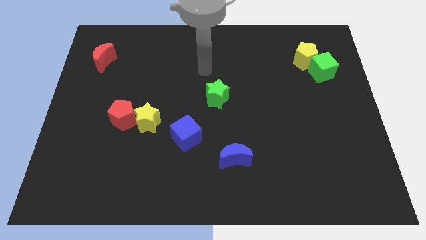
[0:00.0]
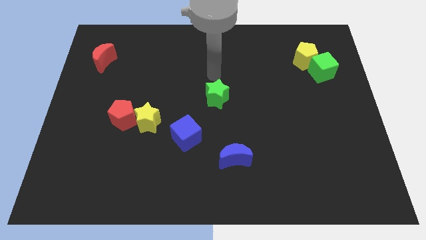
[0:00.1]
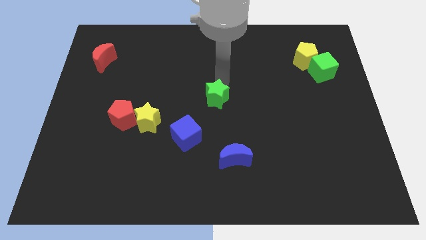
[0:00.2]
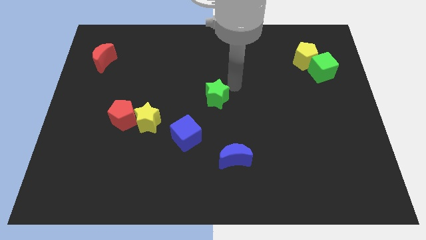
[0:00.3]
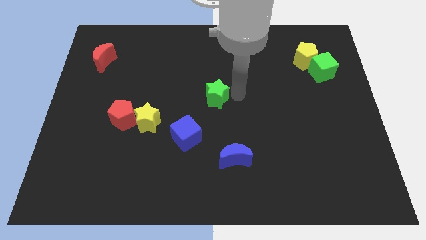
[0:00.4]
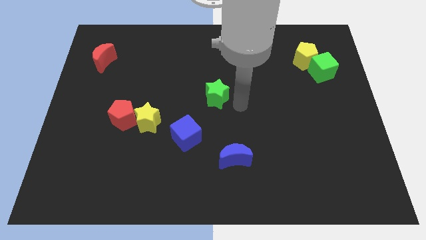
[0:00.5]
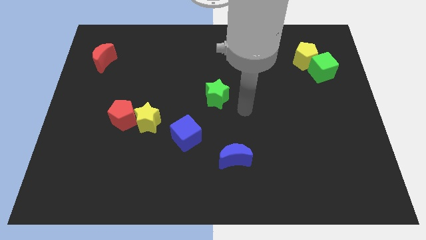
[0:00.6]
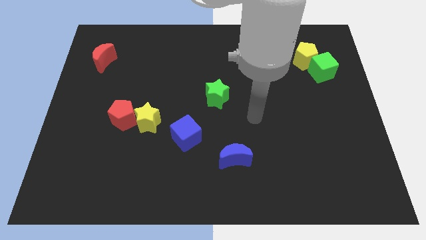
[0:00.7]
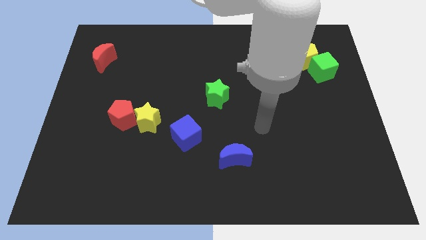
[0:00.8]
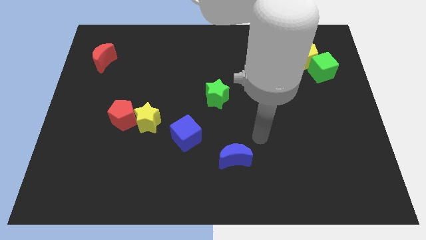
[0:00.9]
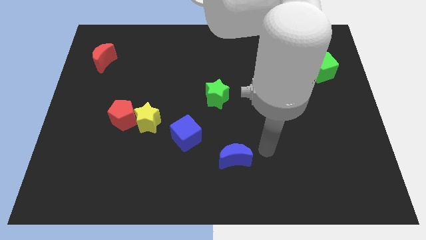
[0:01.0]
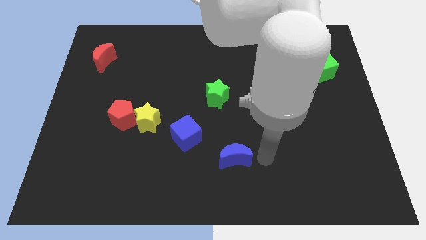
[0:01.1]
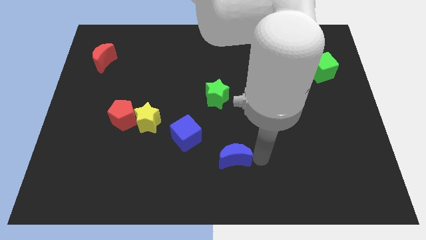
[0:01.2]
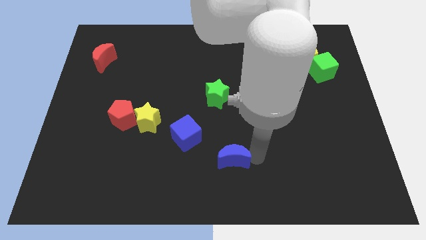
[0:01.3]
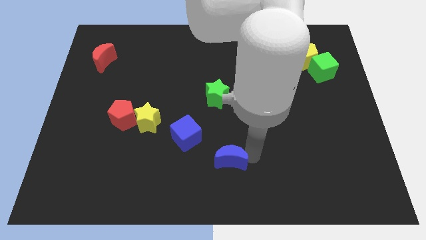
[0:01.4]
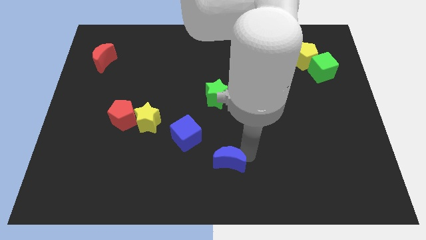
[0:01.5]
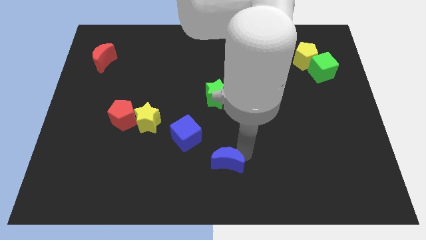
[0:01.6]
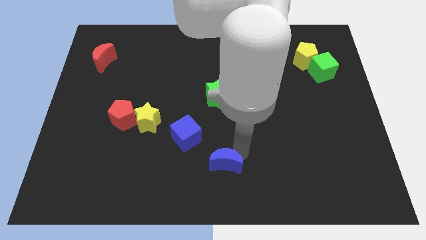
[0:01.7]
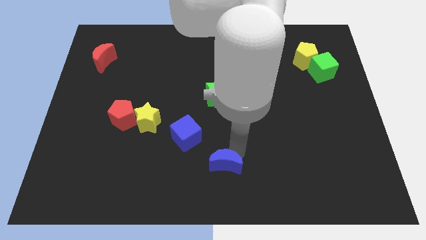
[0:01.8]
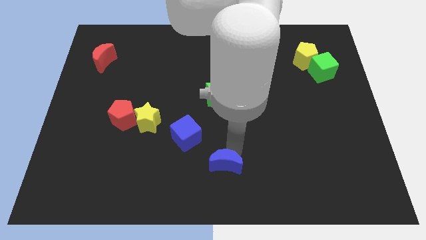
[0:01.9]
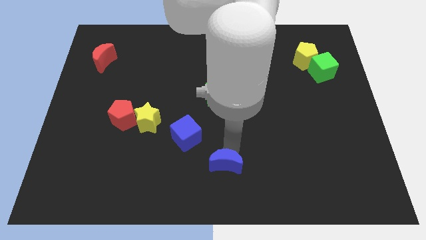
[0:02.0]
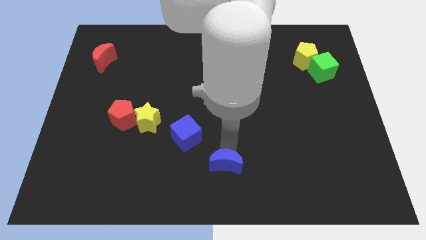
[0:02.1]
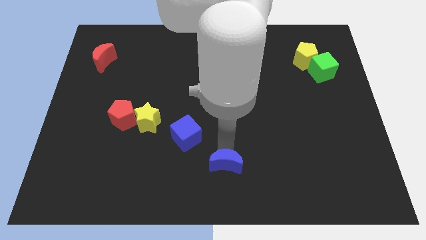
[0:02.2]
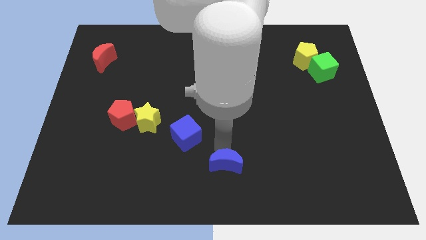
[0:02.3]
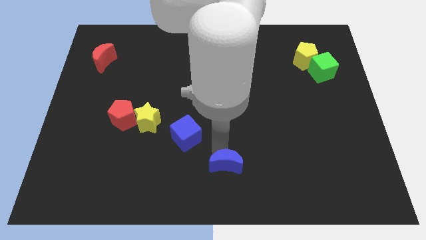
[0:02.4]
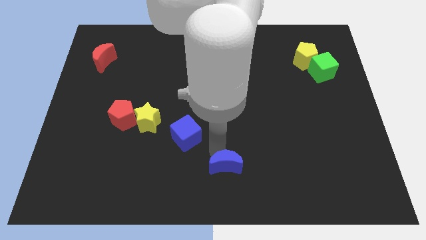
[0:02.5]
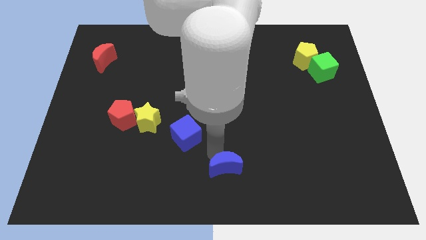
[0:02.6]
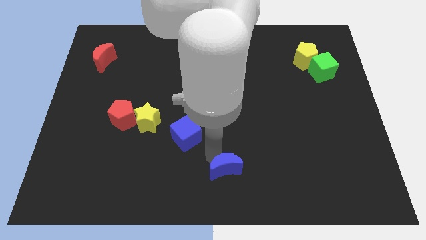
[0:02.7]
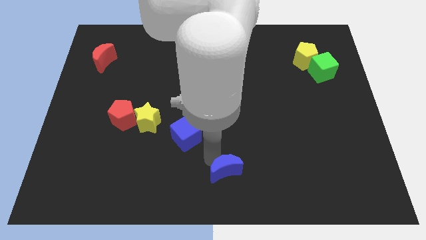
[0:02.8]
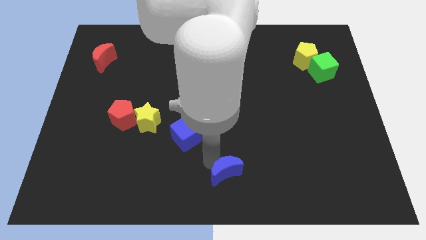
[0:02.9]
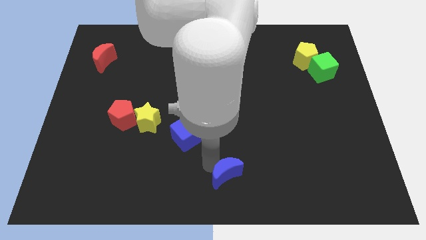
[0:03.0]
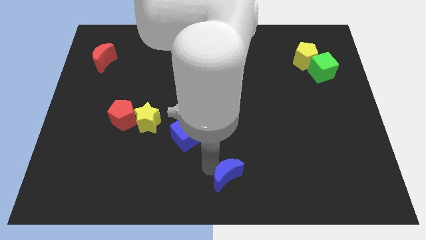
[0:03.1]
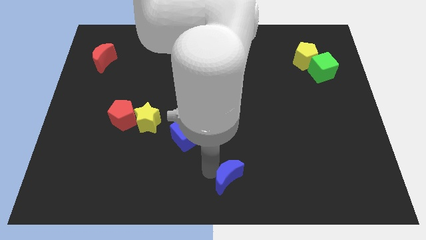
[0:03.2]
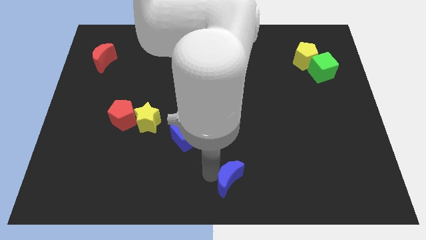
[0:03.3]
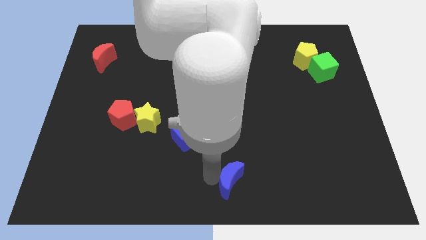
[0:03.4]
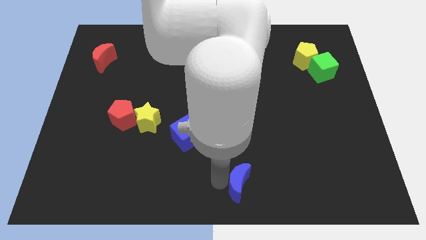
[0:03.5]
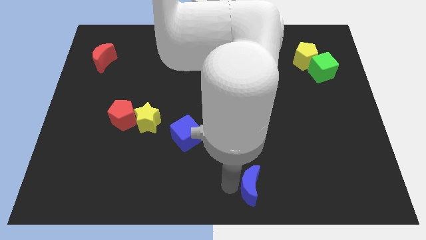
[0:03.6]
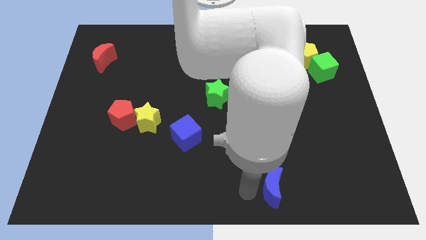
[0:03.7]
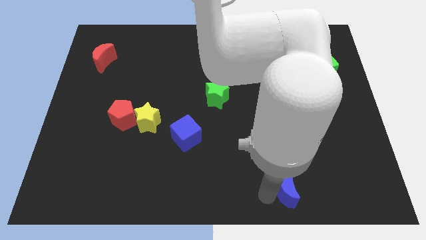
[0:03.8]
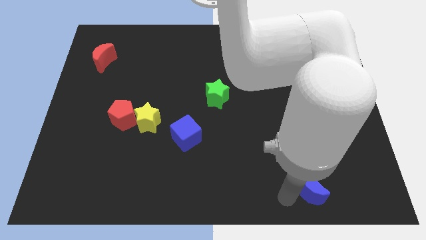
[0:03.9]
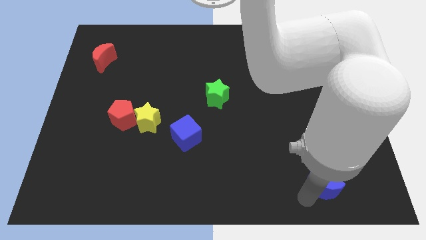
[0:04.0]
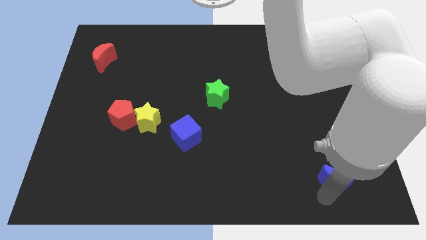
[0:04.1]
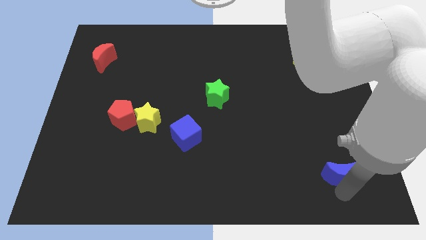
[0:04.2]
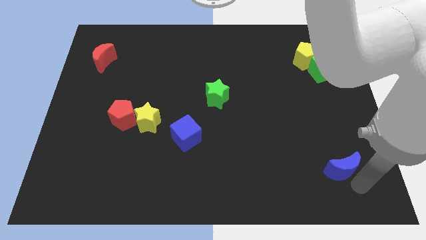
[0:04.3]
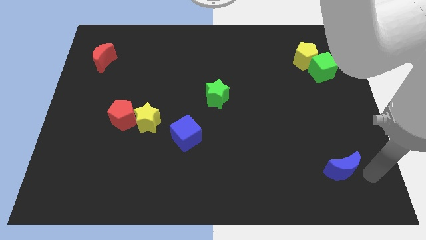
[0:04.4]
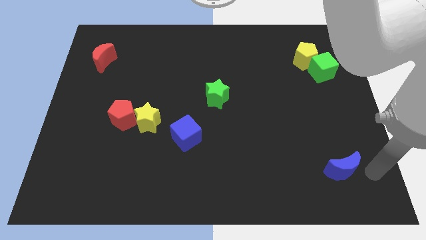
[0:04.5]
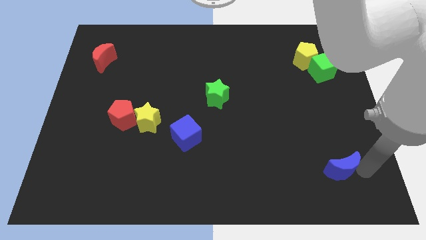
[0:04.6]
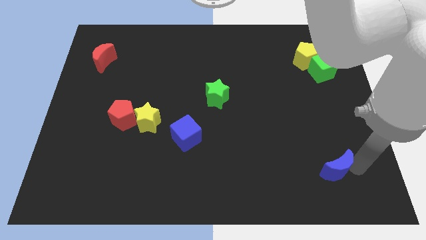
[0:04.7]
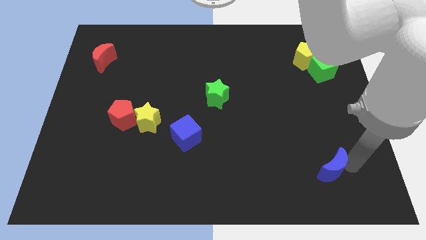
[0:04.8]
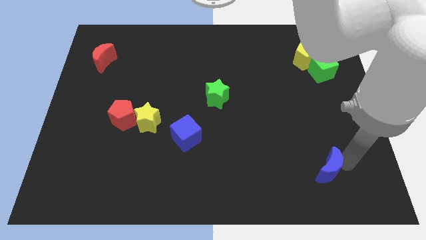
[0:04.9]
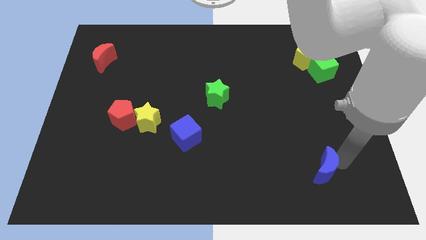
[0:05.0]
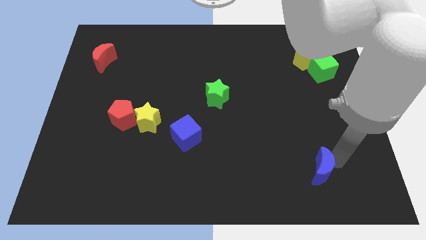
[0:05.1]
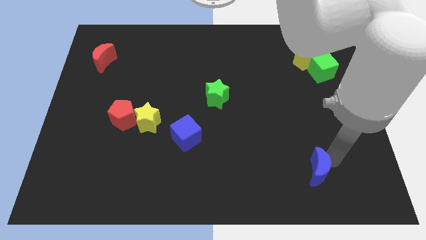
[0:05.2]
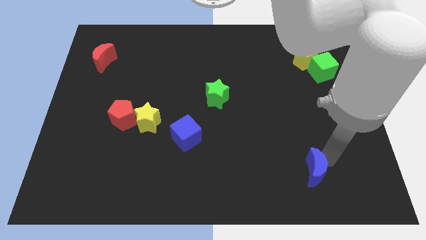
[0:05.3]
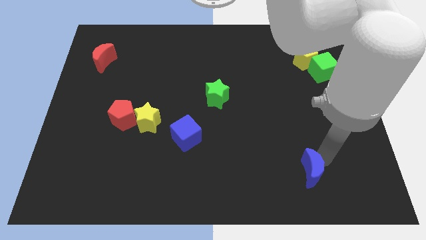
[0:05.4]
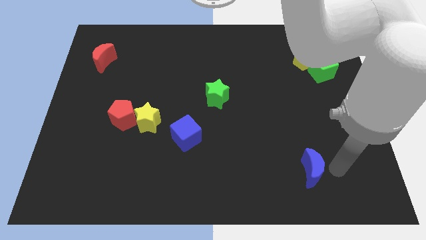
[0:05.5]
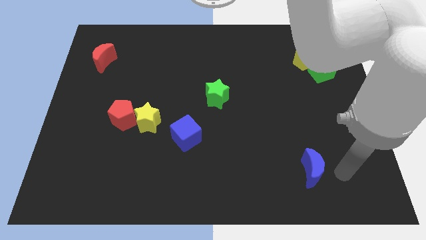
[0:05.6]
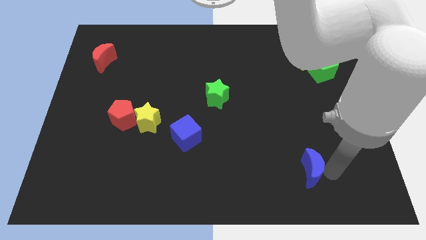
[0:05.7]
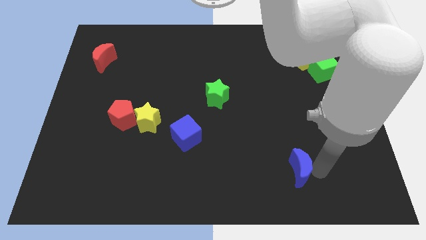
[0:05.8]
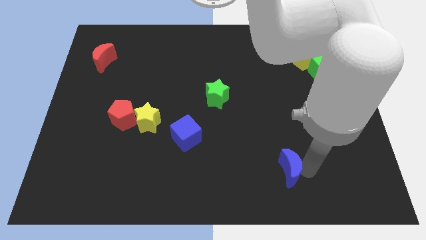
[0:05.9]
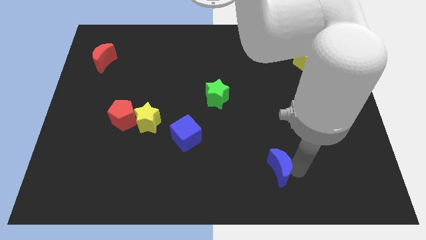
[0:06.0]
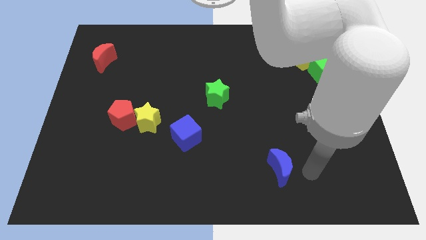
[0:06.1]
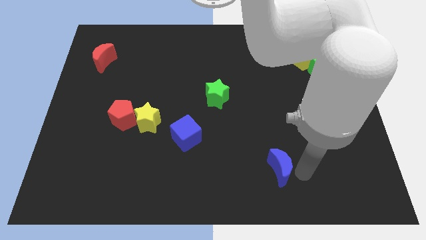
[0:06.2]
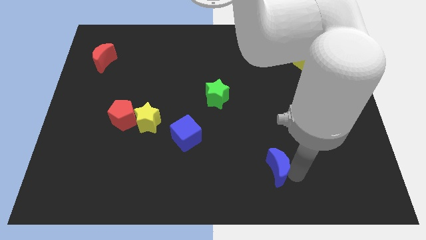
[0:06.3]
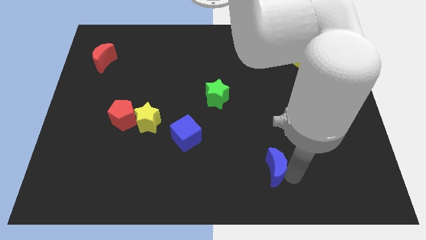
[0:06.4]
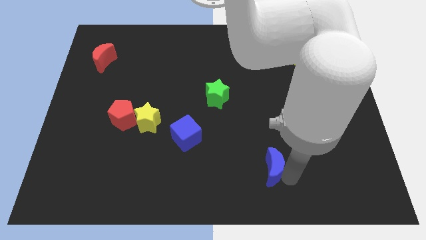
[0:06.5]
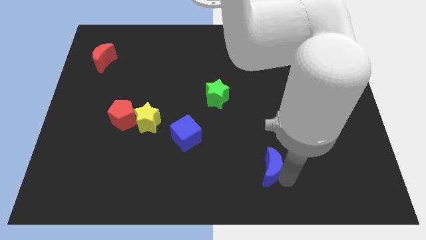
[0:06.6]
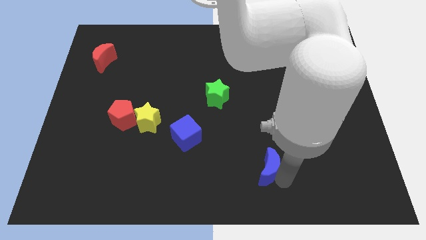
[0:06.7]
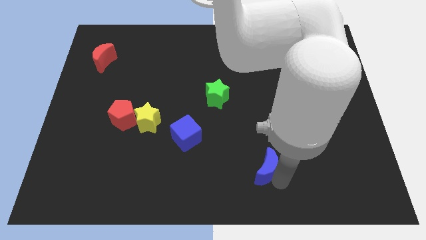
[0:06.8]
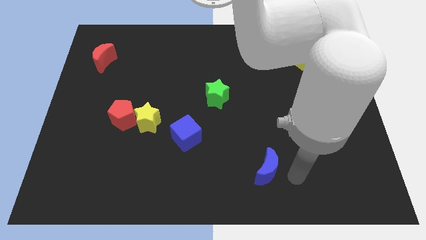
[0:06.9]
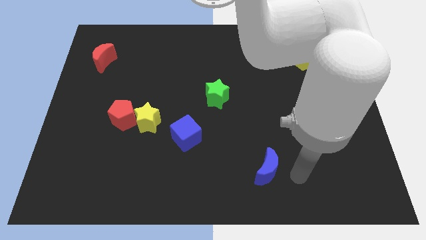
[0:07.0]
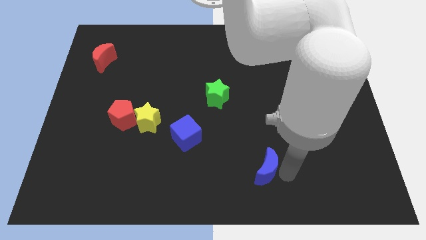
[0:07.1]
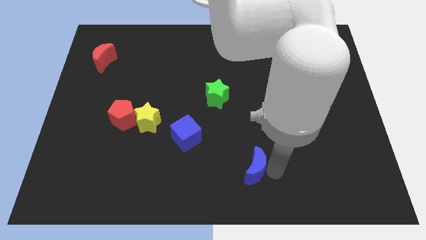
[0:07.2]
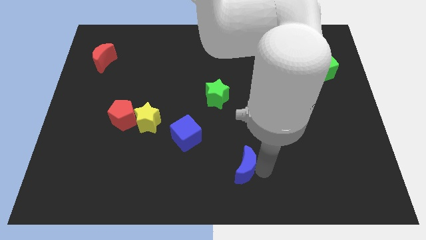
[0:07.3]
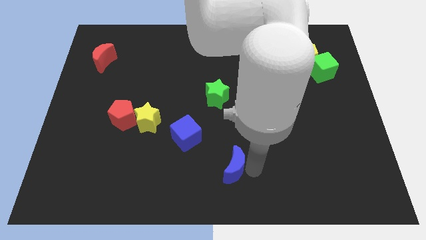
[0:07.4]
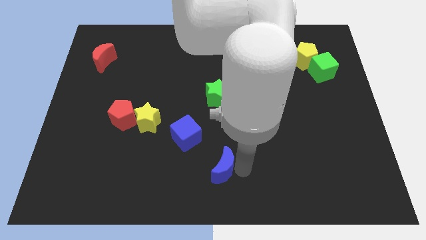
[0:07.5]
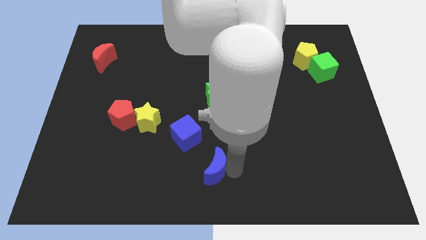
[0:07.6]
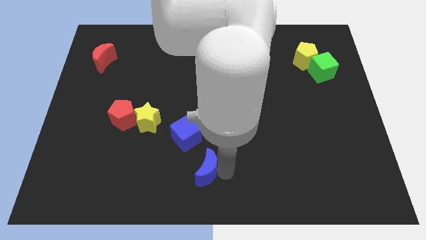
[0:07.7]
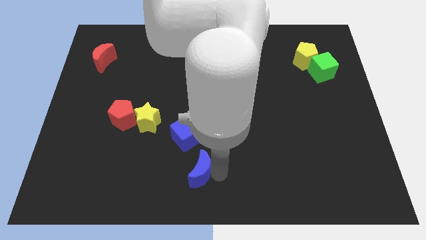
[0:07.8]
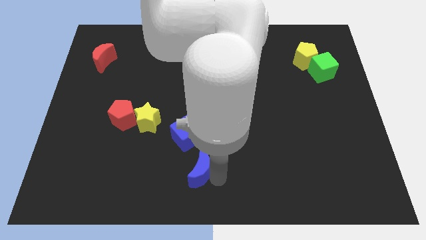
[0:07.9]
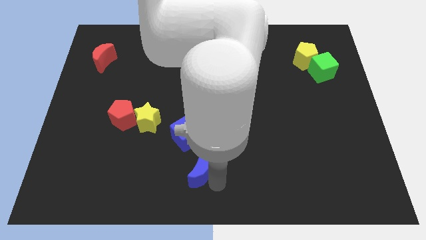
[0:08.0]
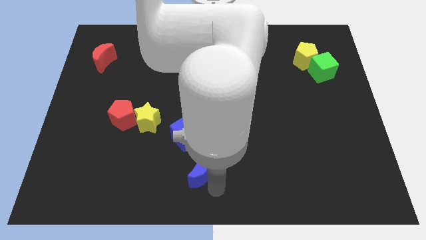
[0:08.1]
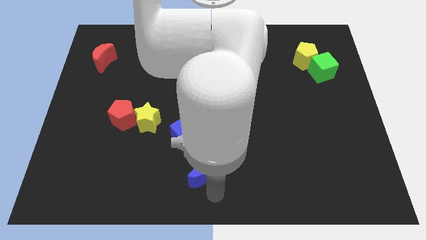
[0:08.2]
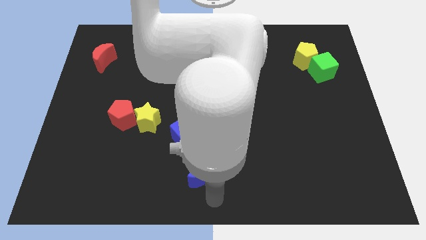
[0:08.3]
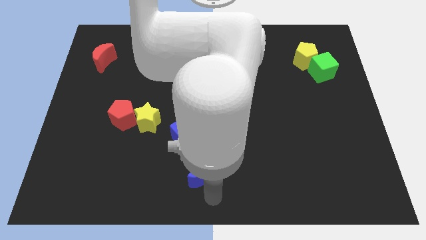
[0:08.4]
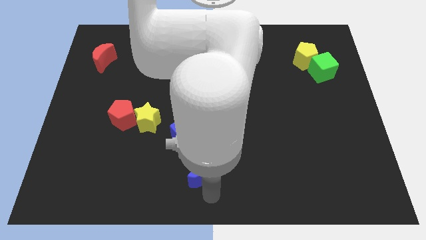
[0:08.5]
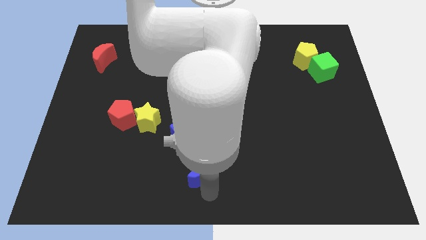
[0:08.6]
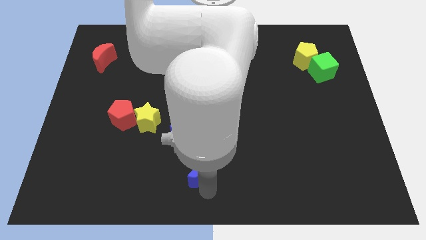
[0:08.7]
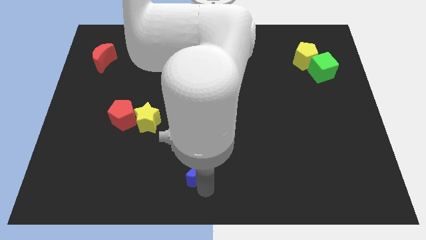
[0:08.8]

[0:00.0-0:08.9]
push the blue moon a little left
